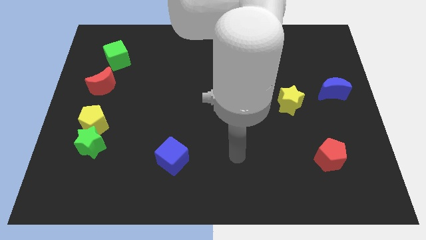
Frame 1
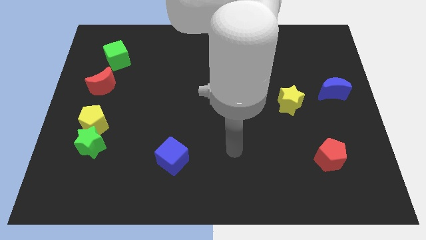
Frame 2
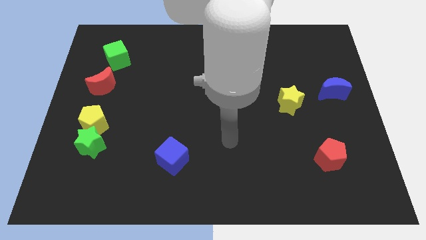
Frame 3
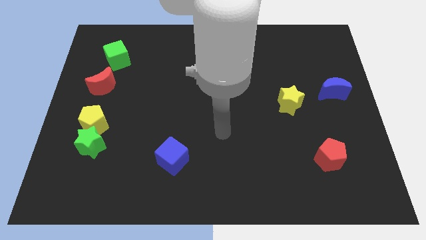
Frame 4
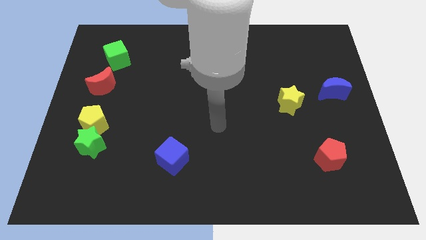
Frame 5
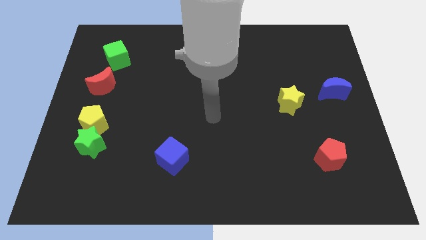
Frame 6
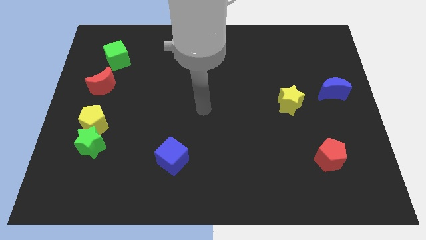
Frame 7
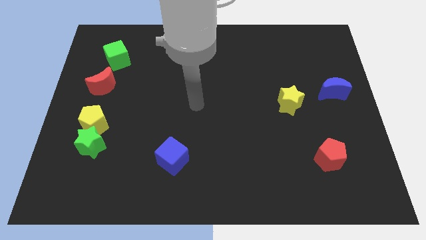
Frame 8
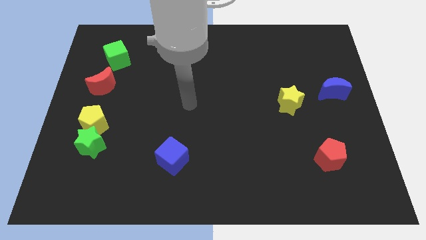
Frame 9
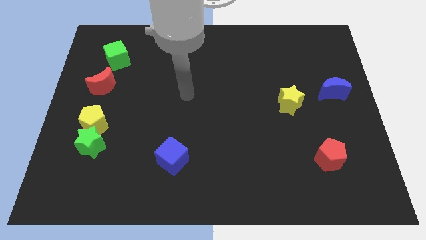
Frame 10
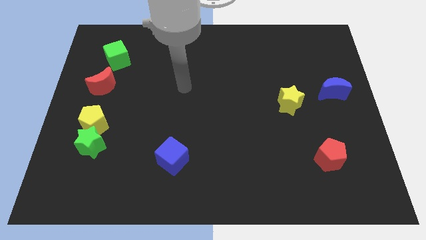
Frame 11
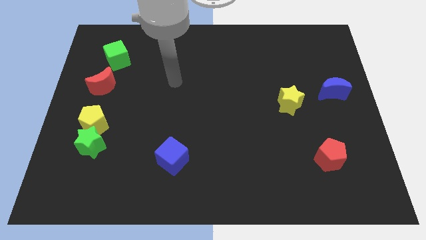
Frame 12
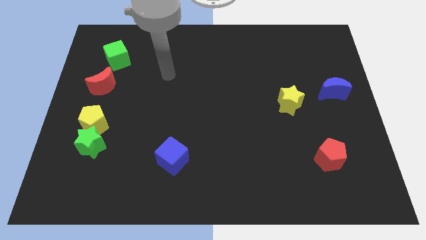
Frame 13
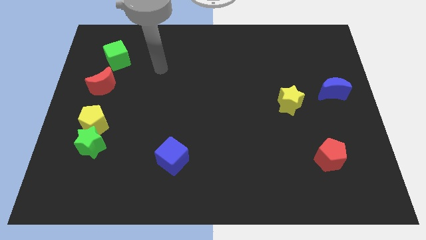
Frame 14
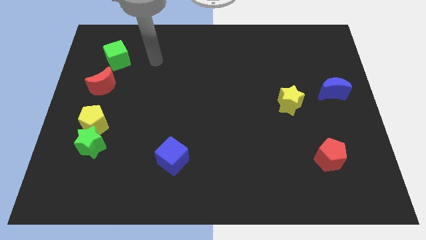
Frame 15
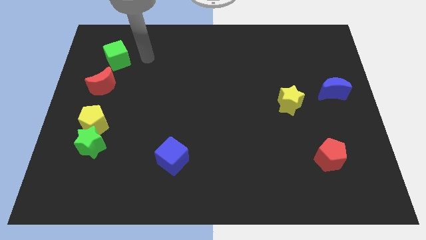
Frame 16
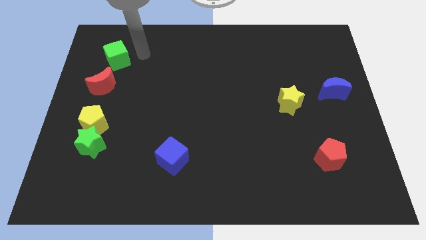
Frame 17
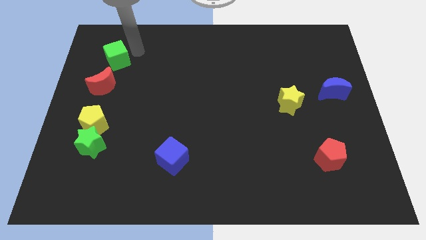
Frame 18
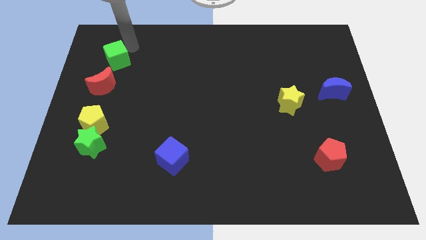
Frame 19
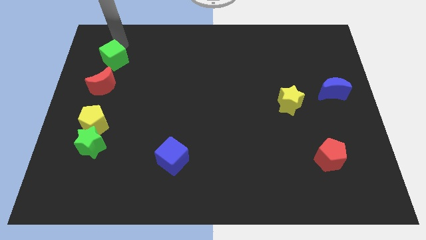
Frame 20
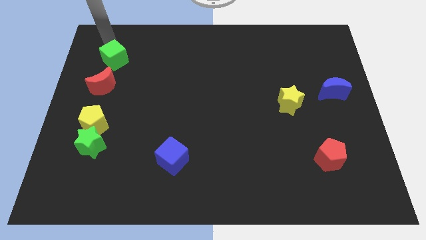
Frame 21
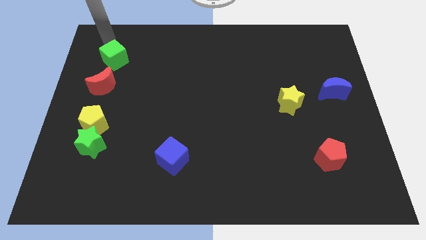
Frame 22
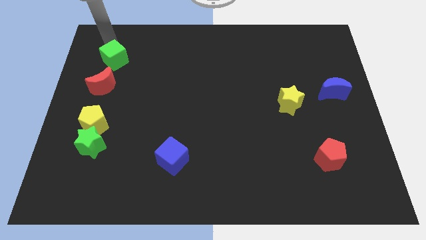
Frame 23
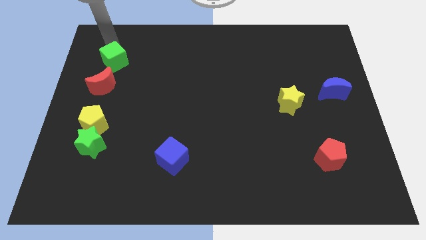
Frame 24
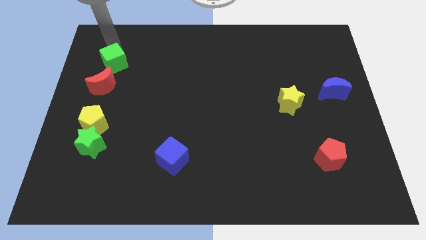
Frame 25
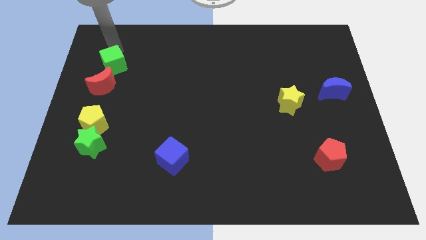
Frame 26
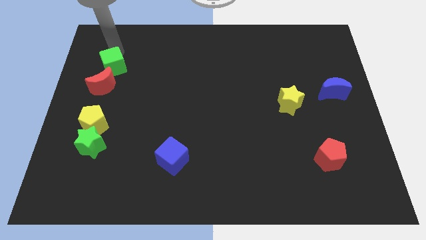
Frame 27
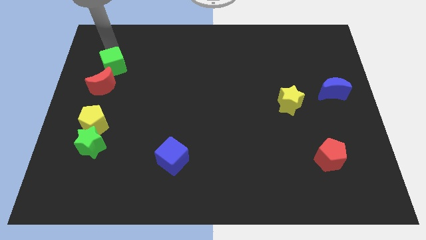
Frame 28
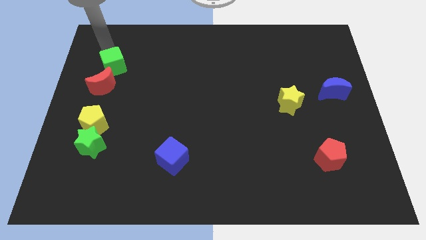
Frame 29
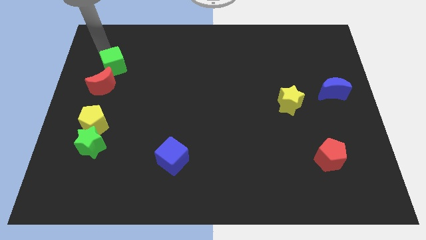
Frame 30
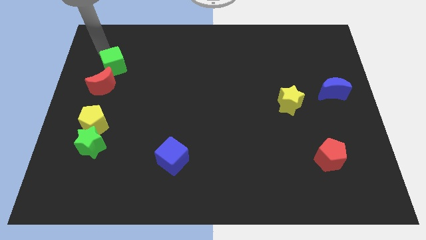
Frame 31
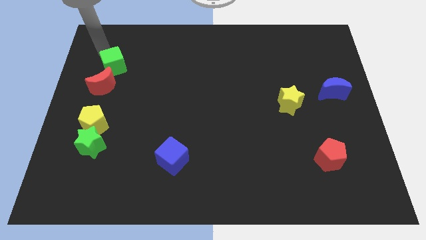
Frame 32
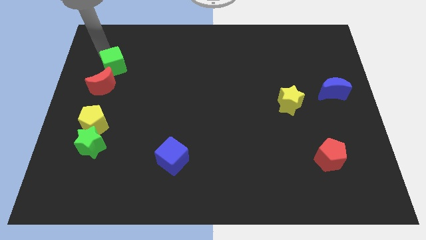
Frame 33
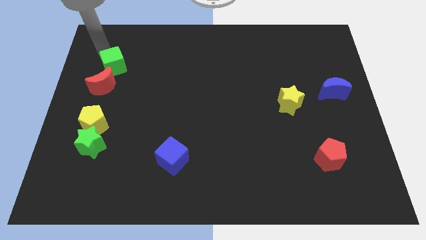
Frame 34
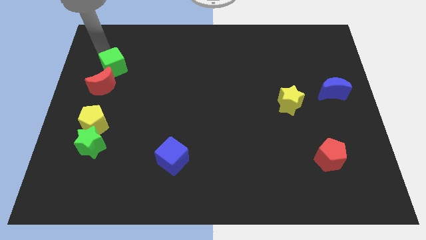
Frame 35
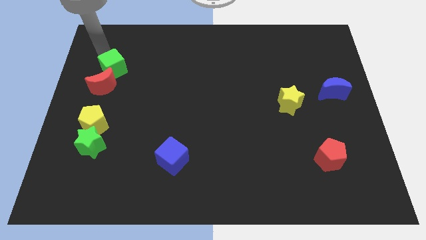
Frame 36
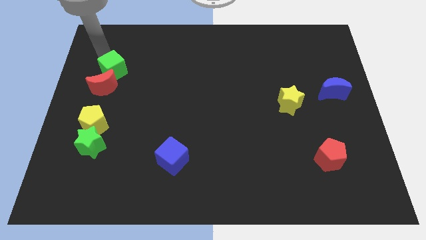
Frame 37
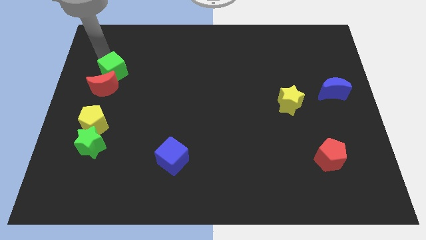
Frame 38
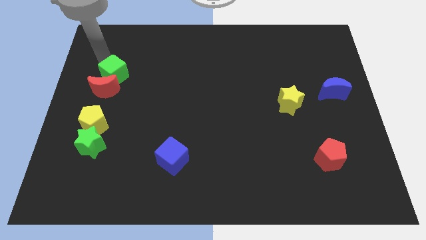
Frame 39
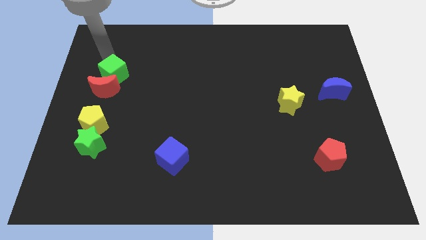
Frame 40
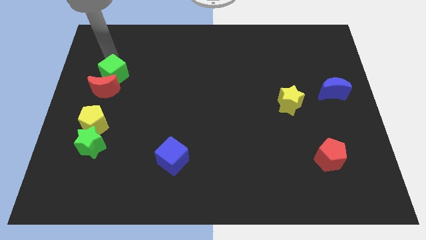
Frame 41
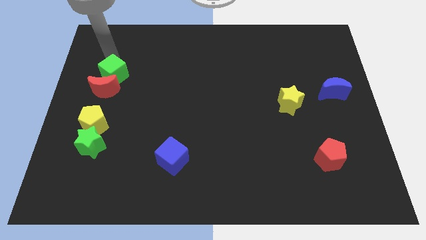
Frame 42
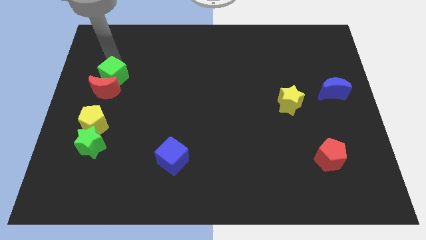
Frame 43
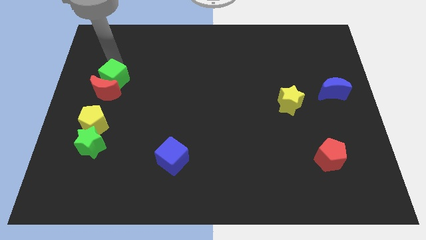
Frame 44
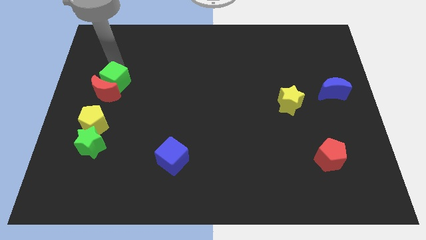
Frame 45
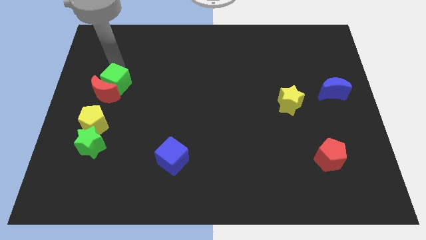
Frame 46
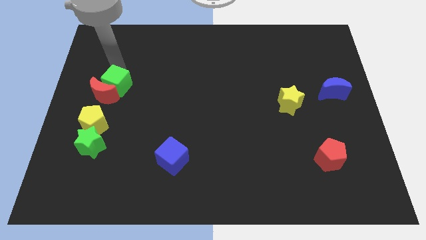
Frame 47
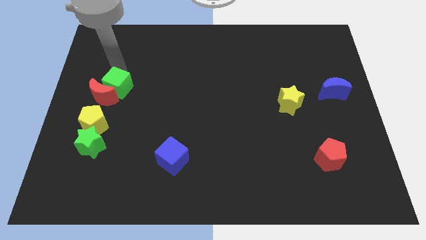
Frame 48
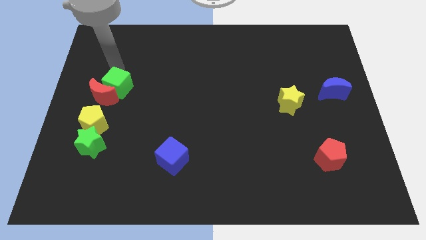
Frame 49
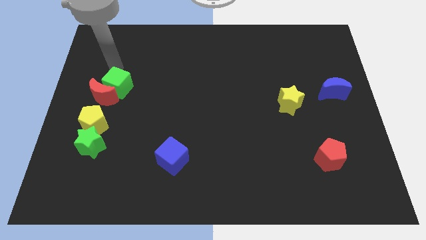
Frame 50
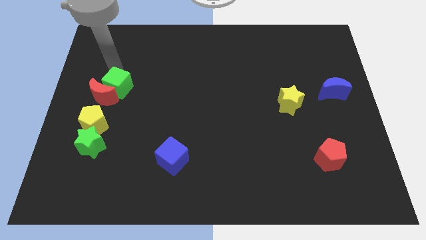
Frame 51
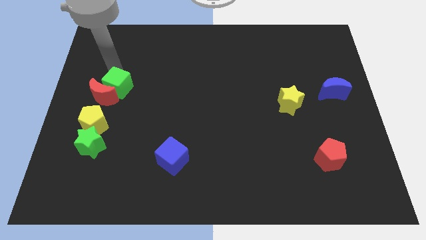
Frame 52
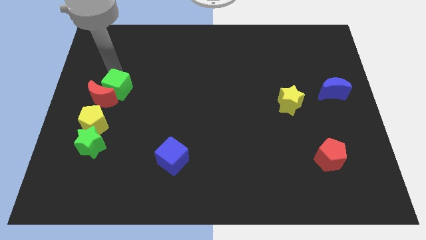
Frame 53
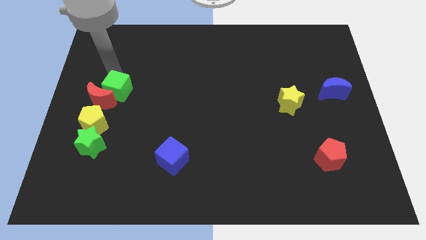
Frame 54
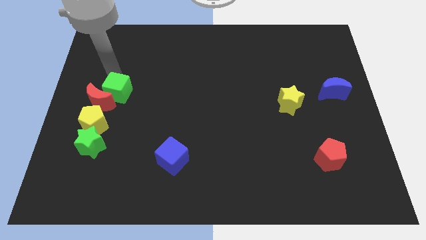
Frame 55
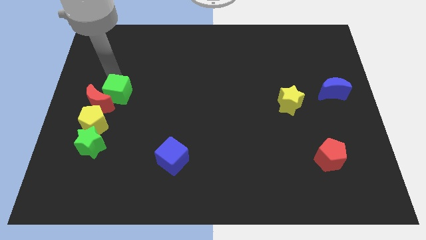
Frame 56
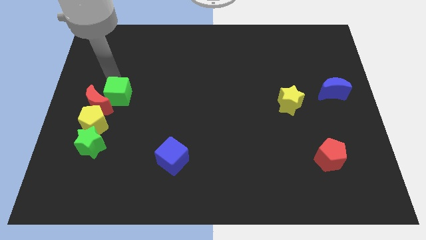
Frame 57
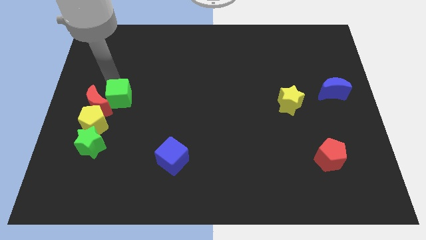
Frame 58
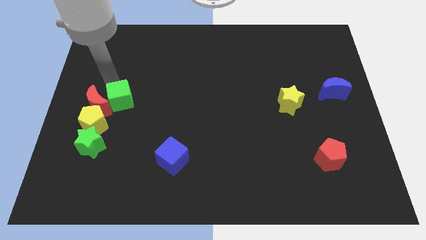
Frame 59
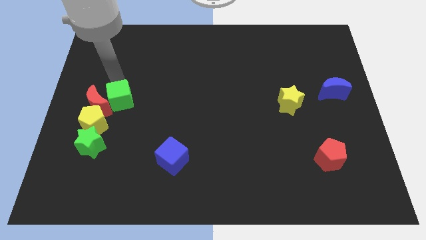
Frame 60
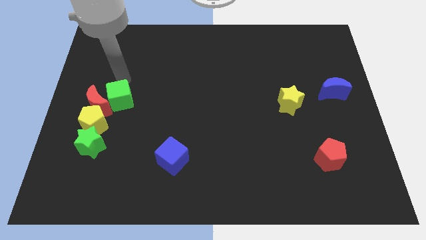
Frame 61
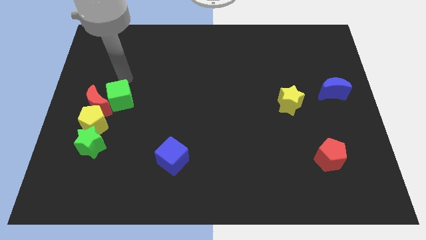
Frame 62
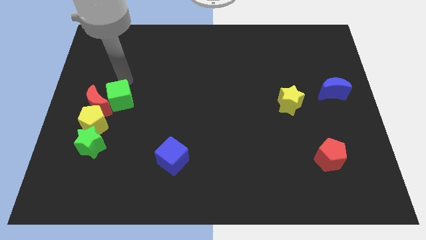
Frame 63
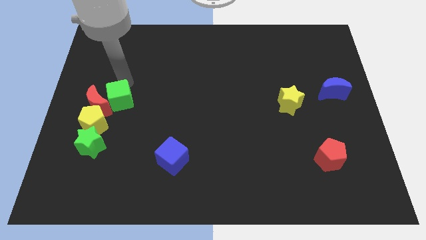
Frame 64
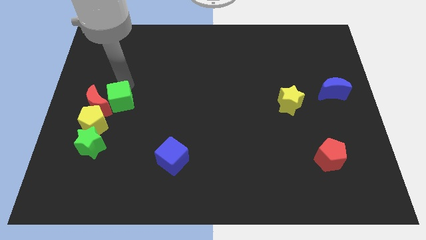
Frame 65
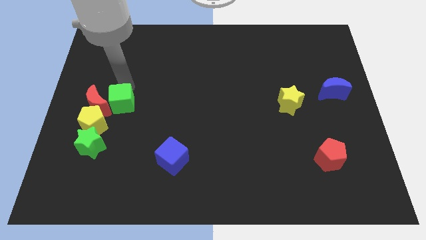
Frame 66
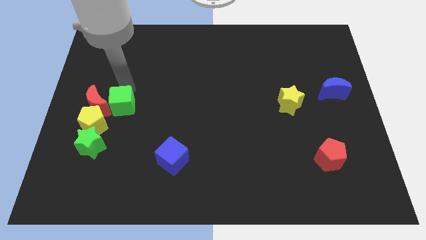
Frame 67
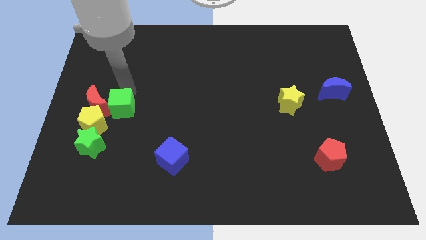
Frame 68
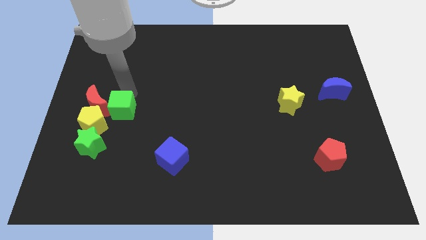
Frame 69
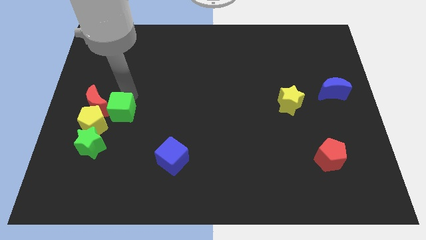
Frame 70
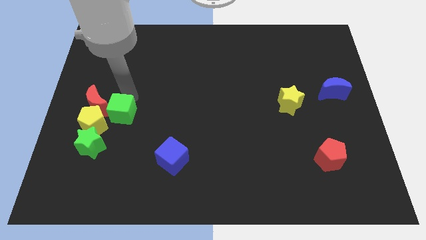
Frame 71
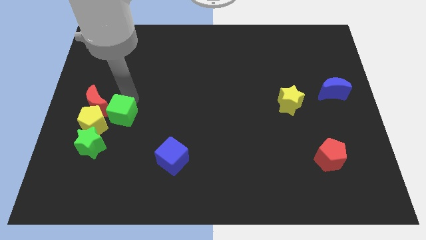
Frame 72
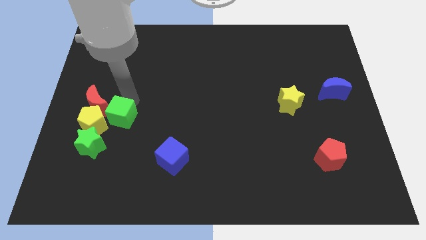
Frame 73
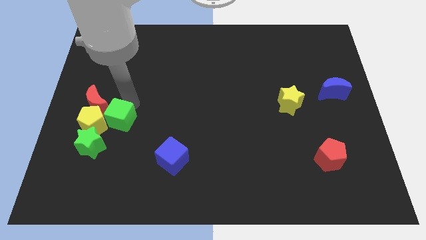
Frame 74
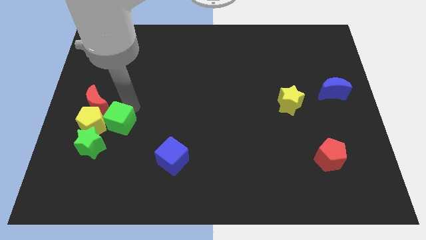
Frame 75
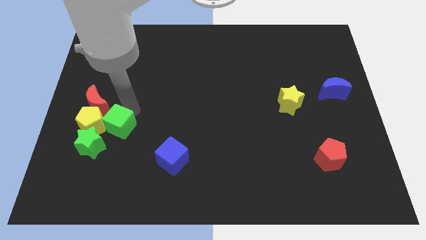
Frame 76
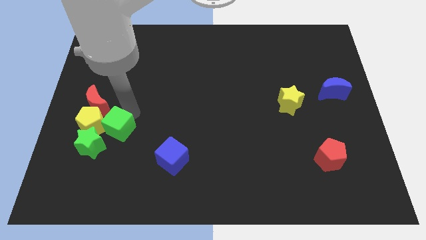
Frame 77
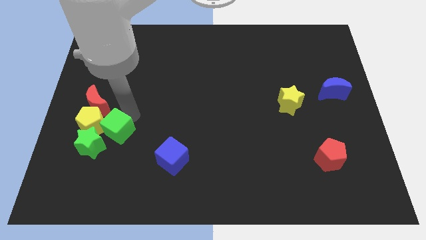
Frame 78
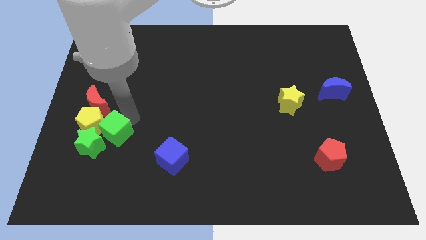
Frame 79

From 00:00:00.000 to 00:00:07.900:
put the green cube next to the green star
